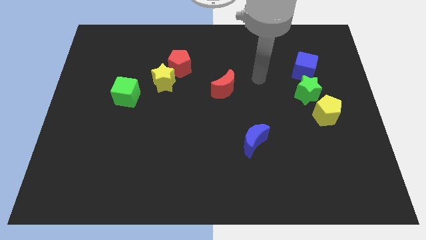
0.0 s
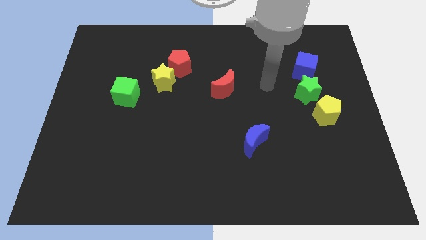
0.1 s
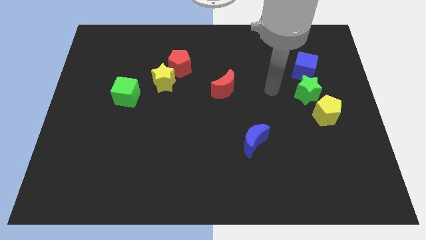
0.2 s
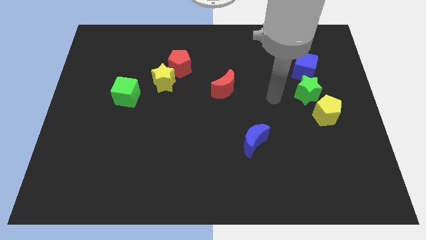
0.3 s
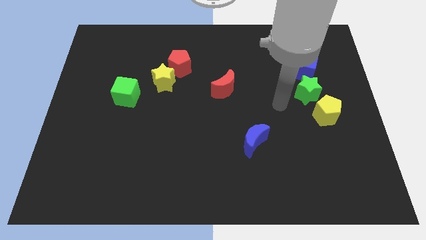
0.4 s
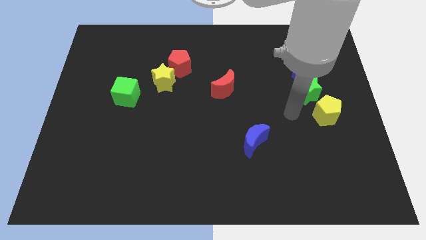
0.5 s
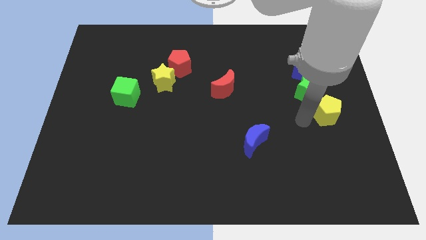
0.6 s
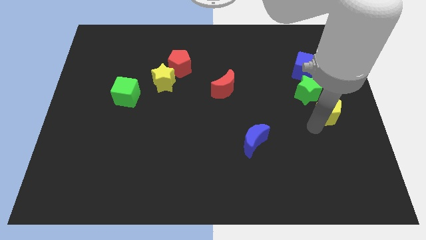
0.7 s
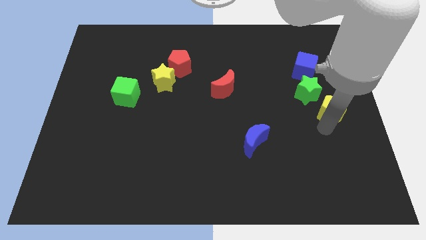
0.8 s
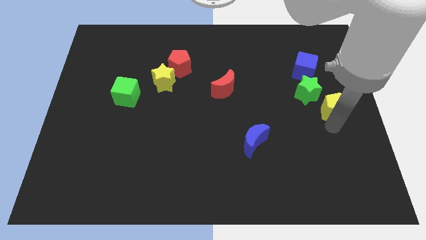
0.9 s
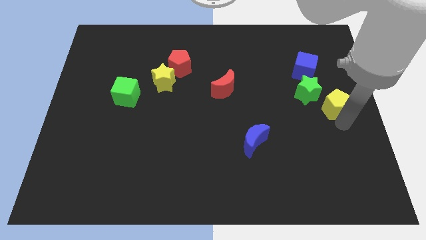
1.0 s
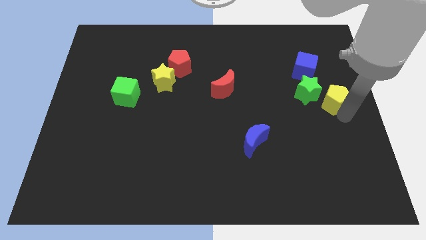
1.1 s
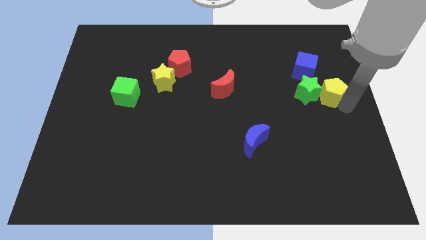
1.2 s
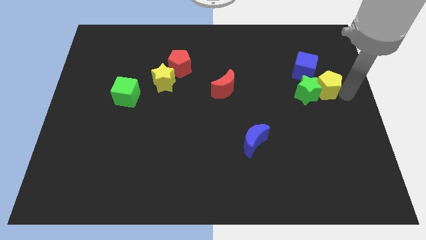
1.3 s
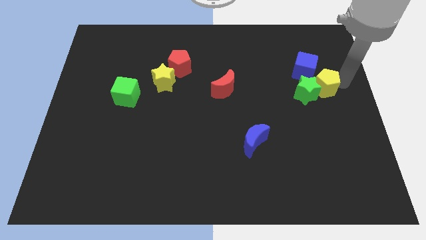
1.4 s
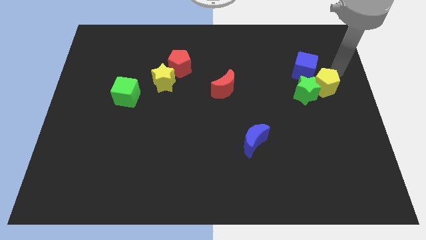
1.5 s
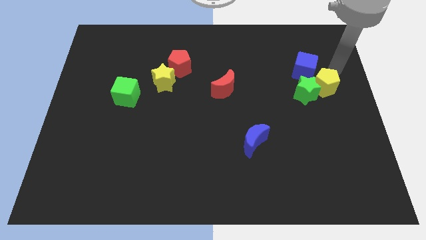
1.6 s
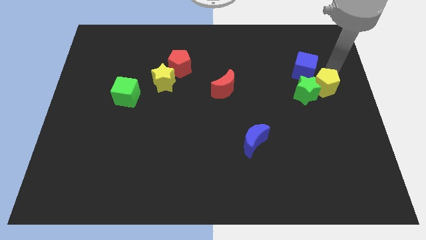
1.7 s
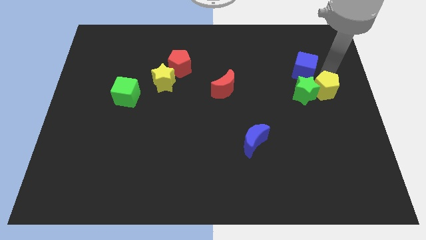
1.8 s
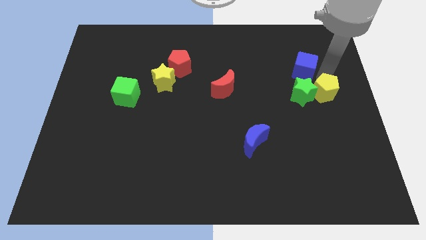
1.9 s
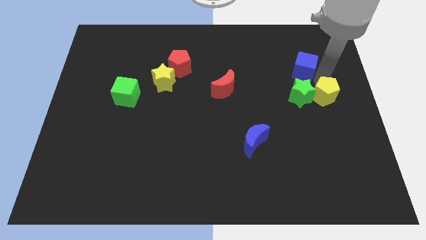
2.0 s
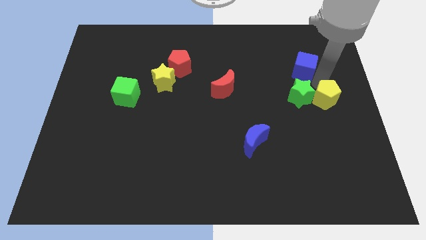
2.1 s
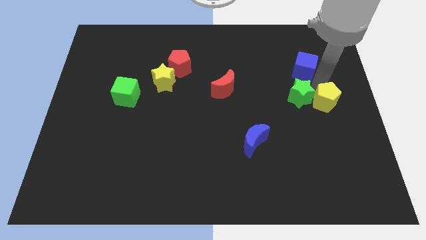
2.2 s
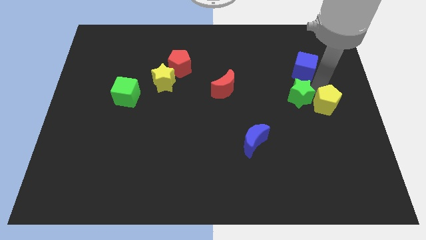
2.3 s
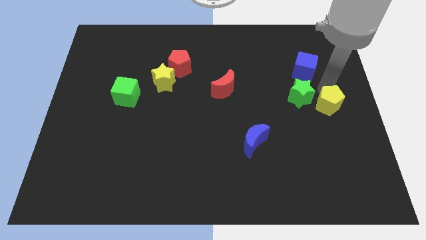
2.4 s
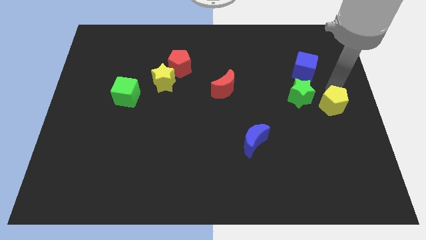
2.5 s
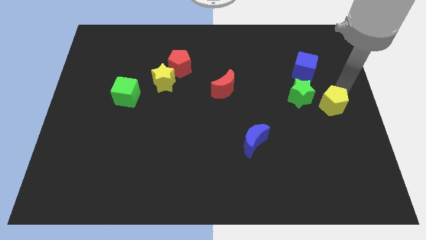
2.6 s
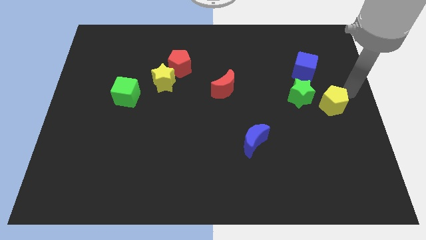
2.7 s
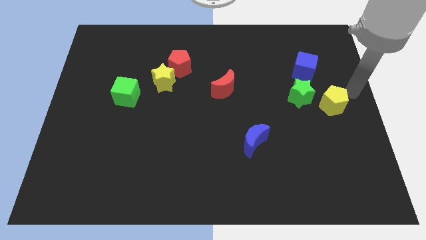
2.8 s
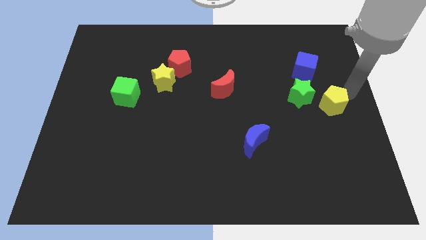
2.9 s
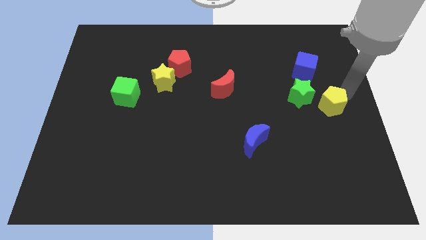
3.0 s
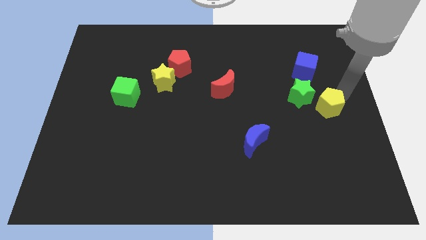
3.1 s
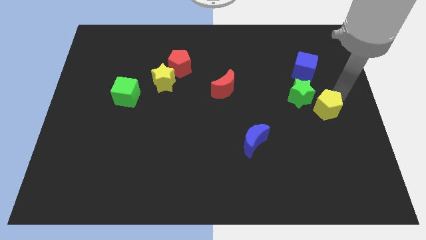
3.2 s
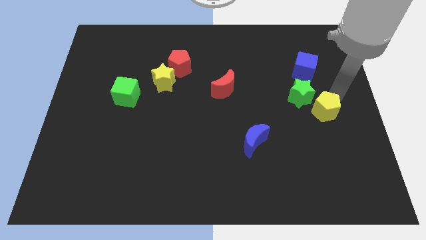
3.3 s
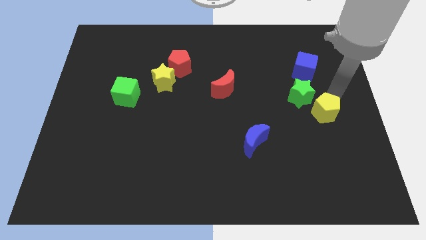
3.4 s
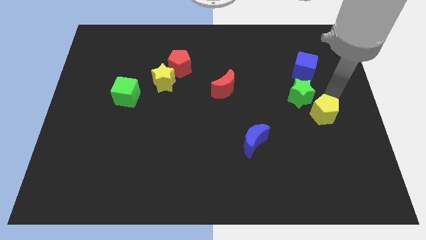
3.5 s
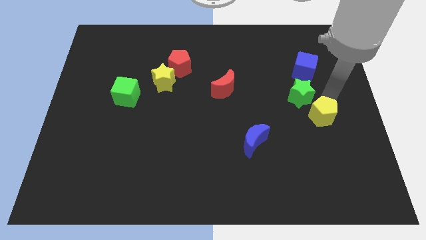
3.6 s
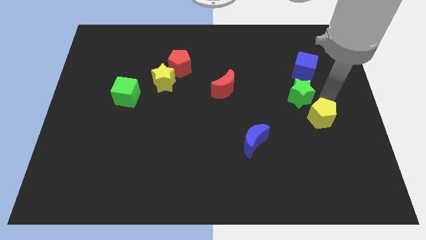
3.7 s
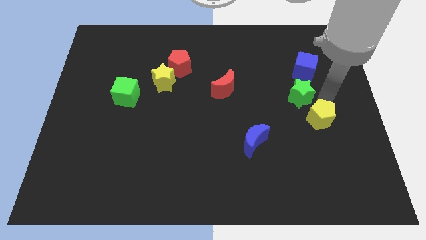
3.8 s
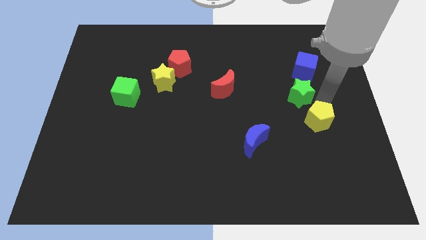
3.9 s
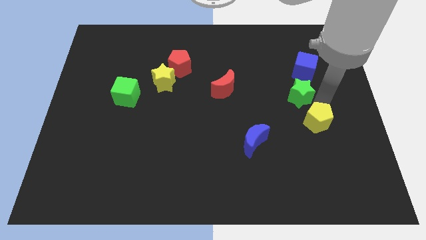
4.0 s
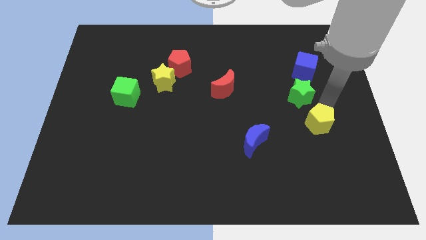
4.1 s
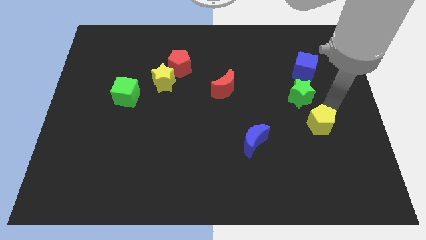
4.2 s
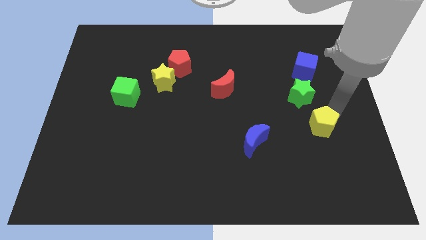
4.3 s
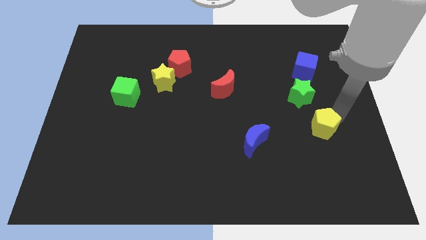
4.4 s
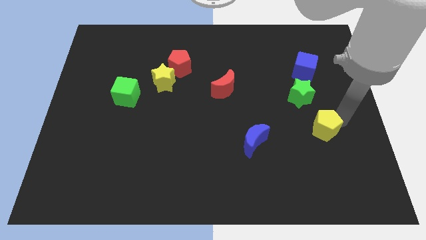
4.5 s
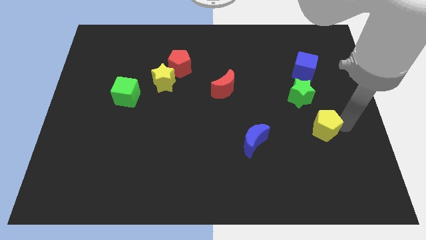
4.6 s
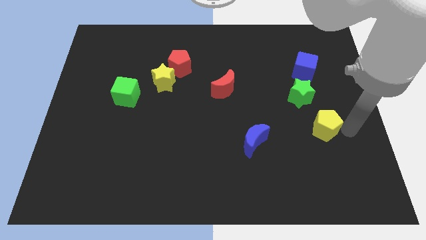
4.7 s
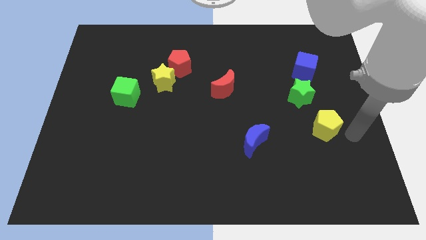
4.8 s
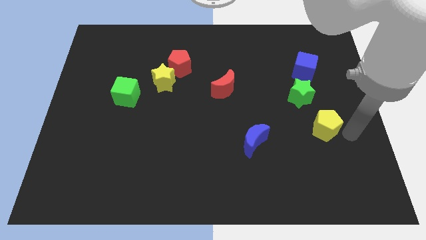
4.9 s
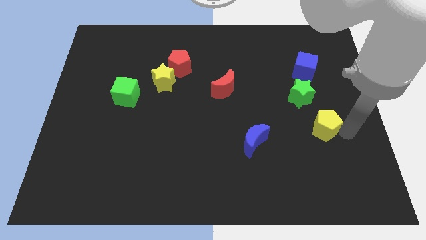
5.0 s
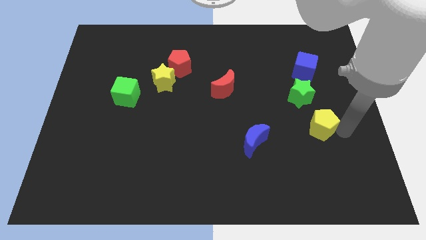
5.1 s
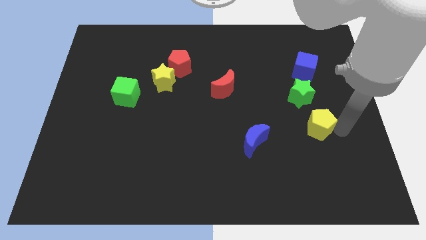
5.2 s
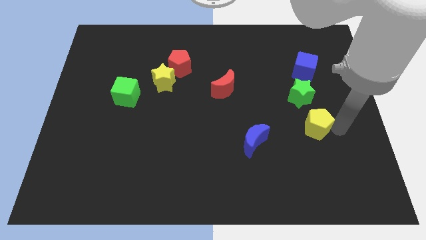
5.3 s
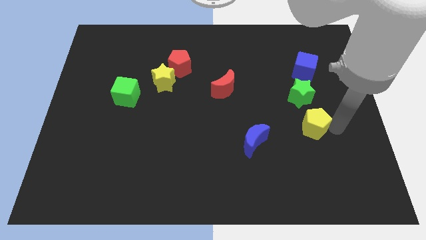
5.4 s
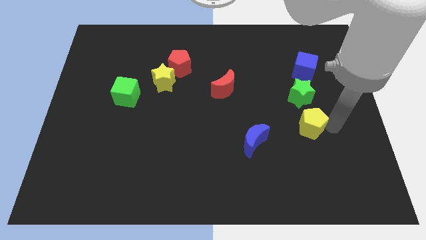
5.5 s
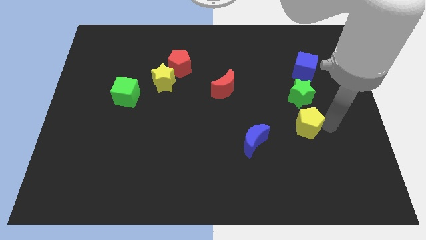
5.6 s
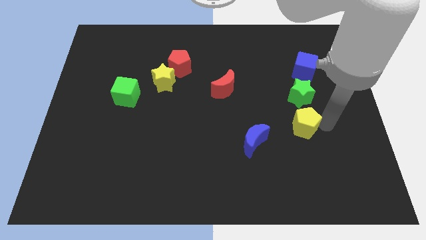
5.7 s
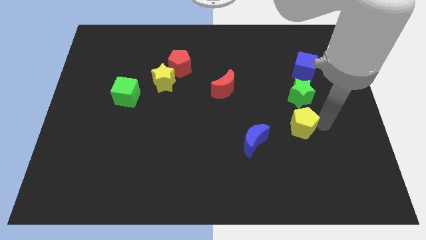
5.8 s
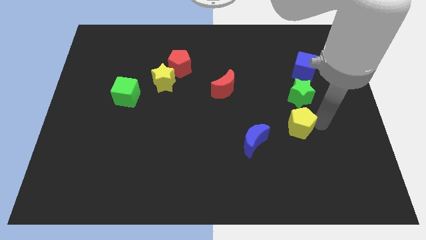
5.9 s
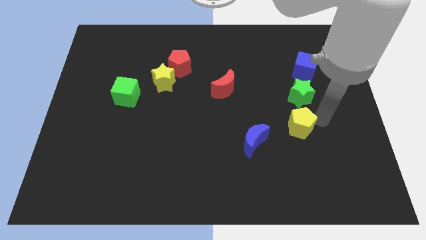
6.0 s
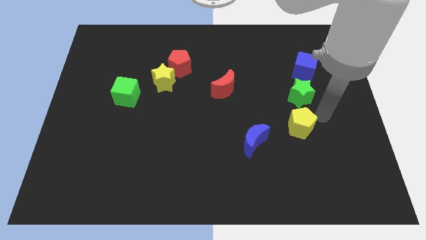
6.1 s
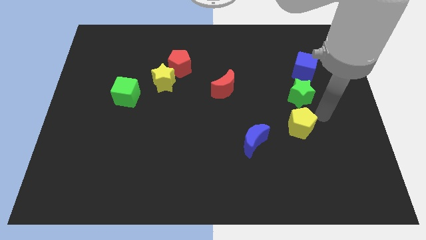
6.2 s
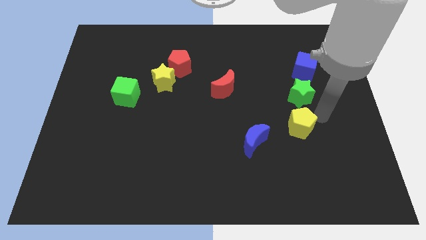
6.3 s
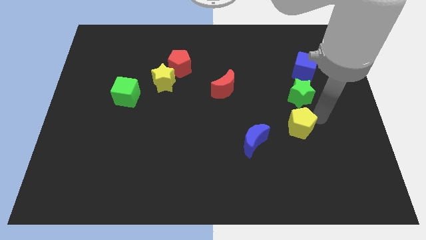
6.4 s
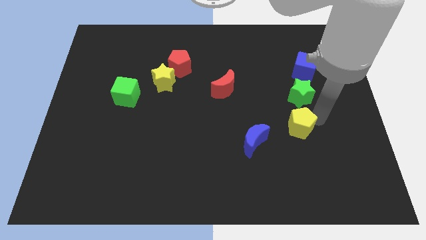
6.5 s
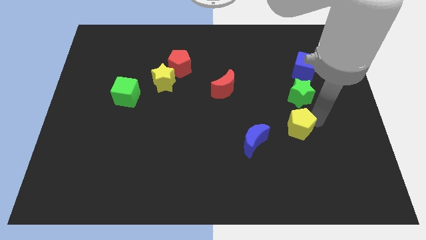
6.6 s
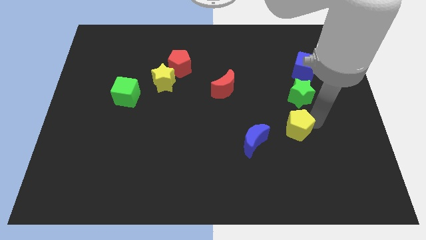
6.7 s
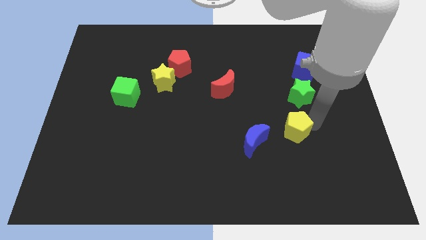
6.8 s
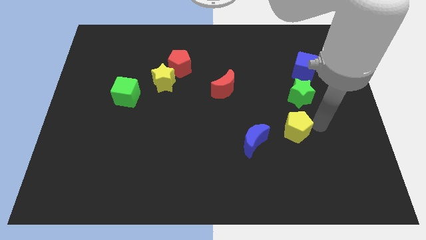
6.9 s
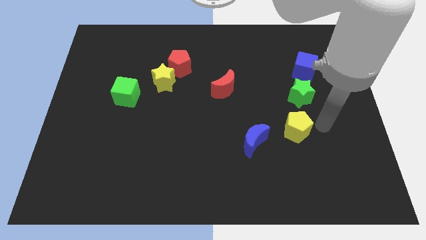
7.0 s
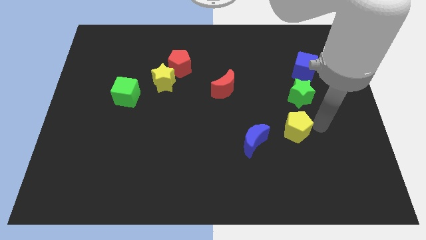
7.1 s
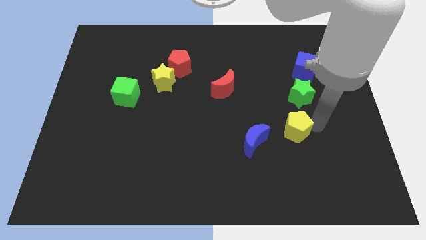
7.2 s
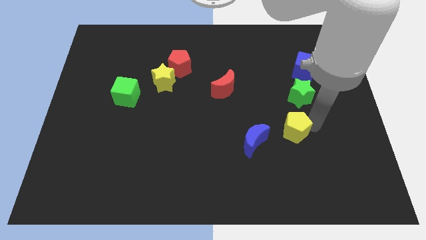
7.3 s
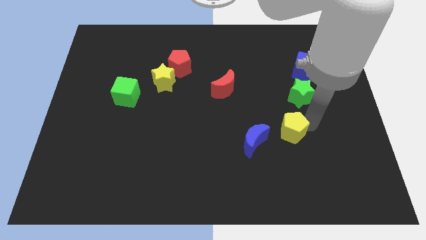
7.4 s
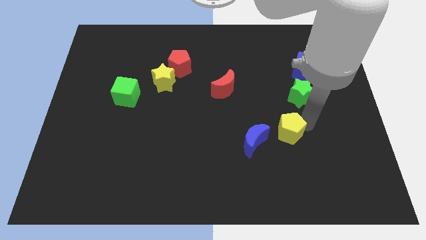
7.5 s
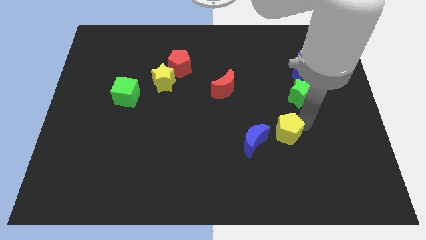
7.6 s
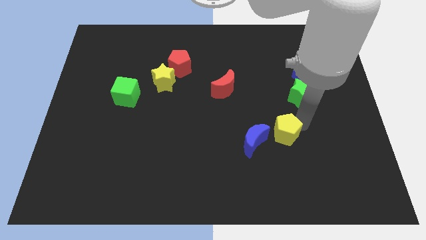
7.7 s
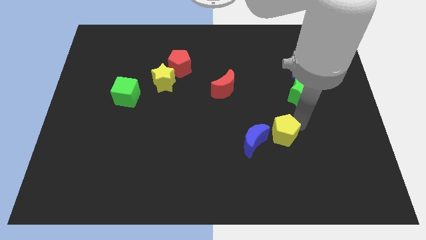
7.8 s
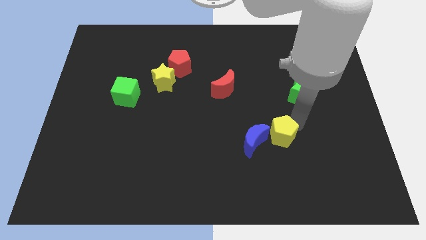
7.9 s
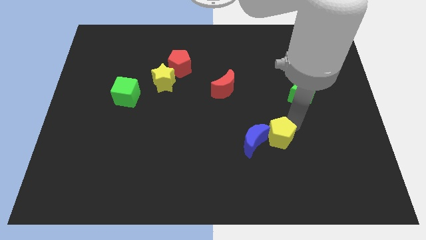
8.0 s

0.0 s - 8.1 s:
put the yellow pentagon next to the blue moon
